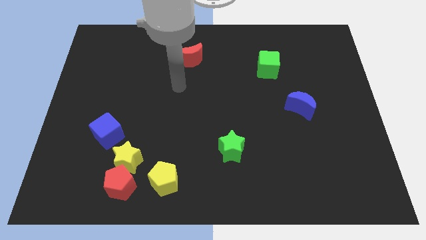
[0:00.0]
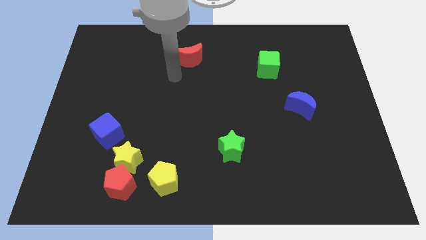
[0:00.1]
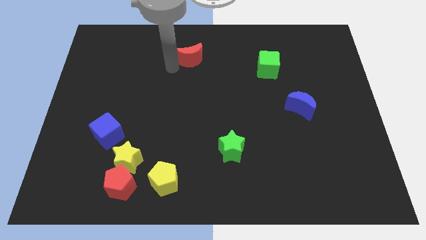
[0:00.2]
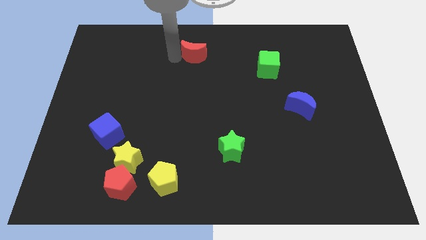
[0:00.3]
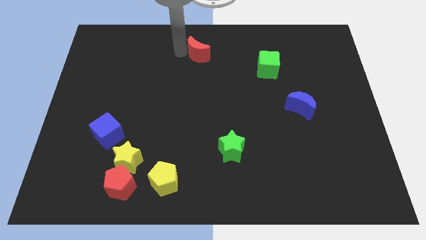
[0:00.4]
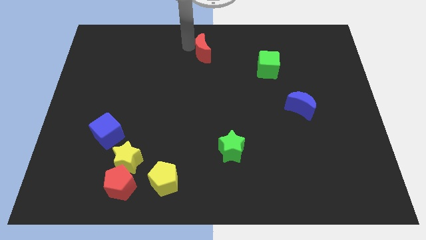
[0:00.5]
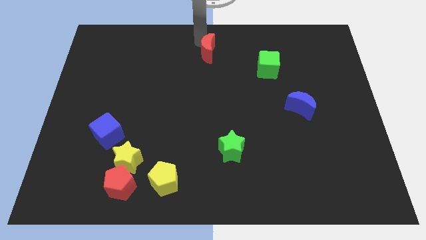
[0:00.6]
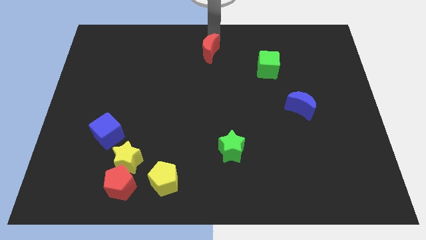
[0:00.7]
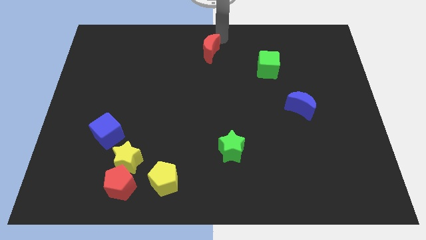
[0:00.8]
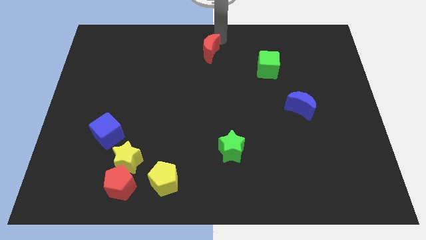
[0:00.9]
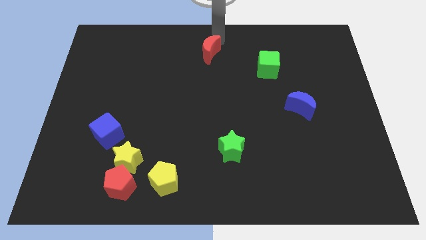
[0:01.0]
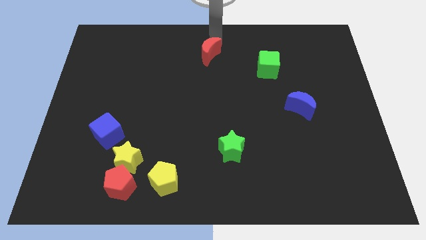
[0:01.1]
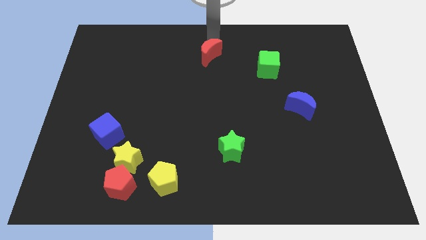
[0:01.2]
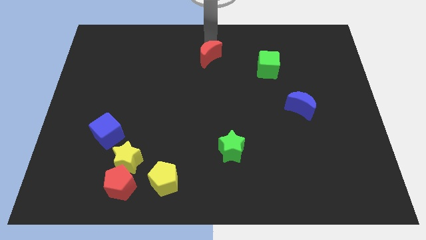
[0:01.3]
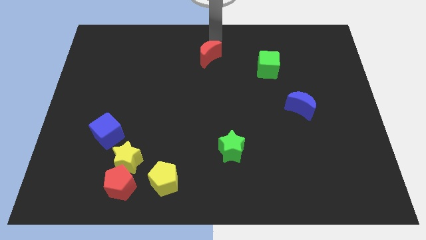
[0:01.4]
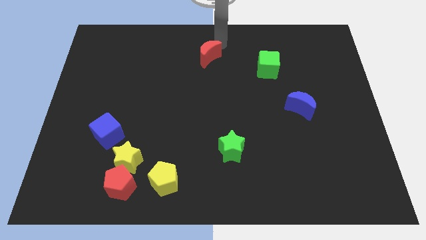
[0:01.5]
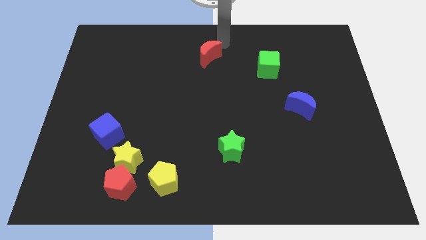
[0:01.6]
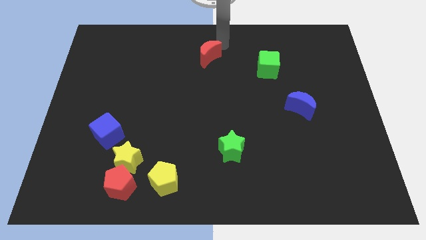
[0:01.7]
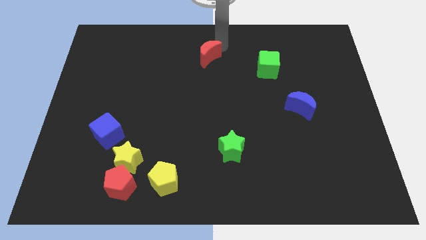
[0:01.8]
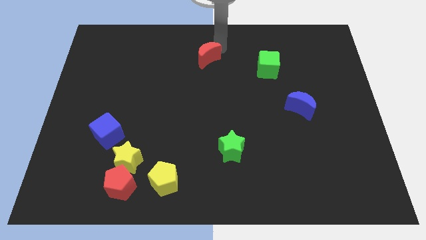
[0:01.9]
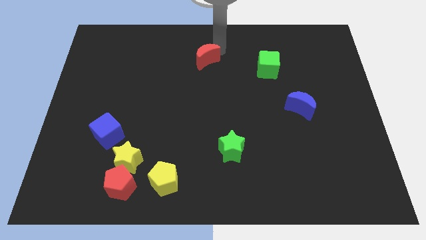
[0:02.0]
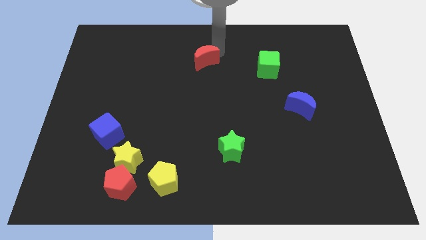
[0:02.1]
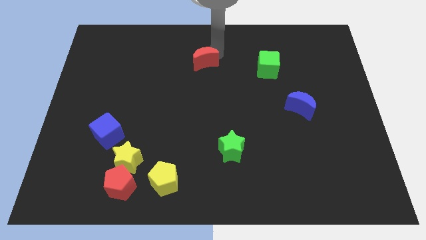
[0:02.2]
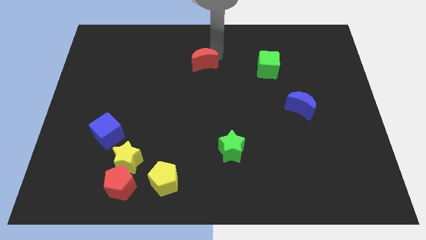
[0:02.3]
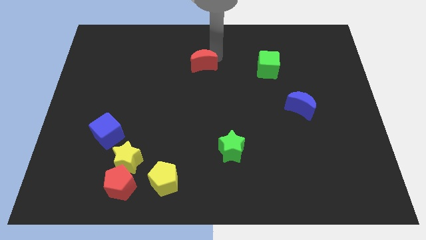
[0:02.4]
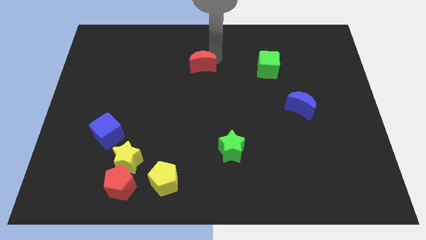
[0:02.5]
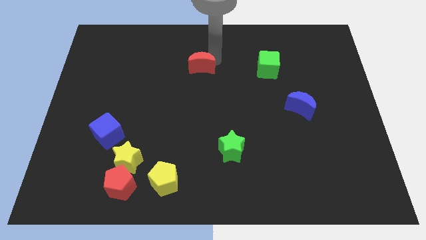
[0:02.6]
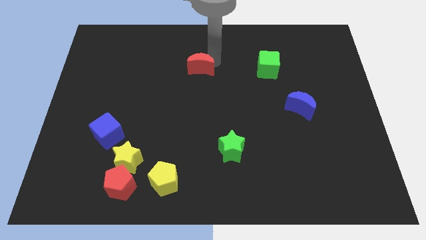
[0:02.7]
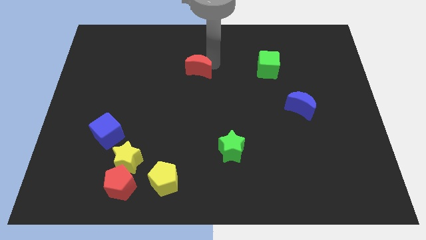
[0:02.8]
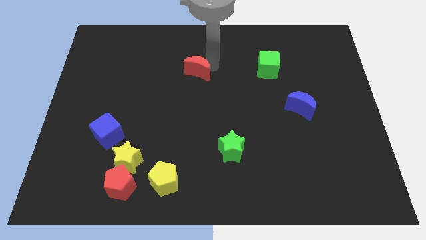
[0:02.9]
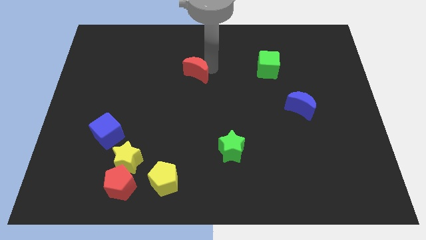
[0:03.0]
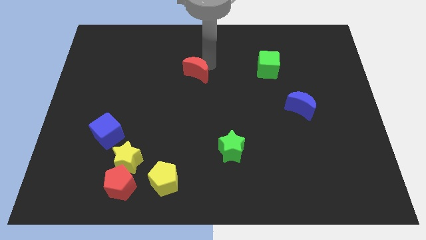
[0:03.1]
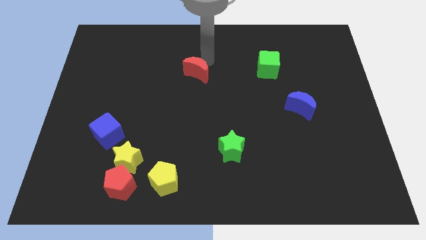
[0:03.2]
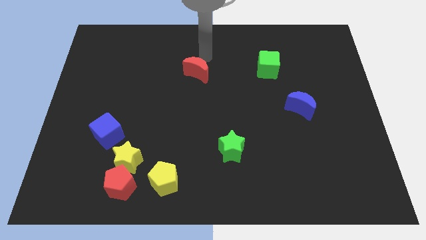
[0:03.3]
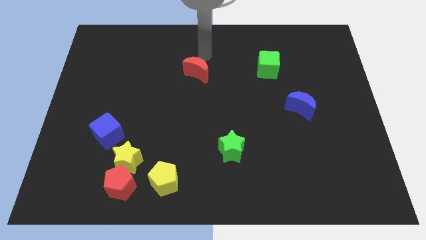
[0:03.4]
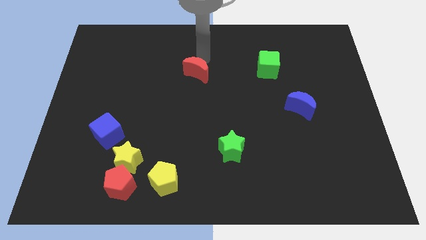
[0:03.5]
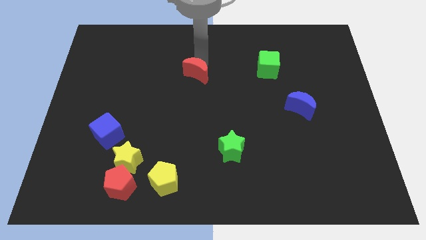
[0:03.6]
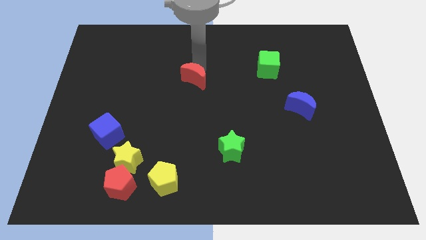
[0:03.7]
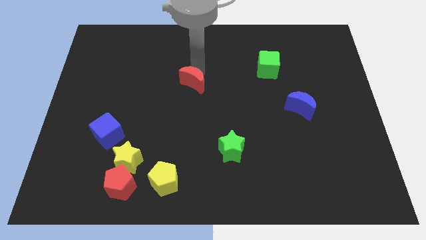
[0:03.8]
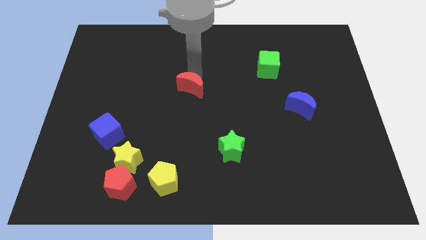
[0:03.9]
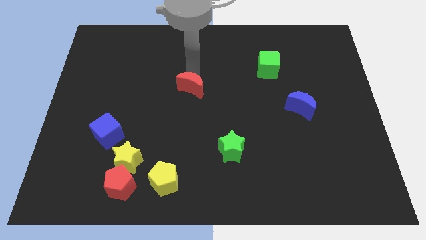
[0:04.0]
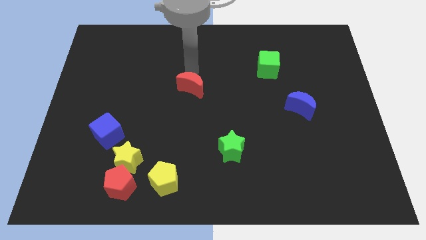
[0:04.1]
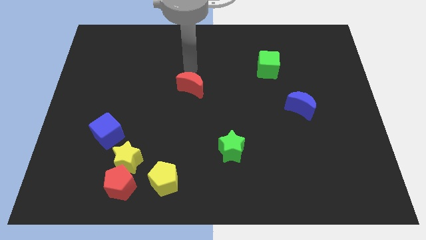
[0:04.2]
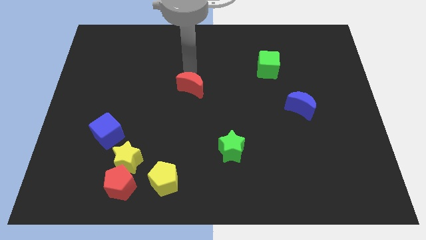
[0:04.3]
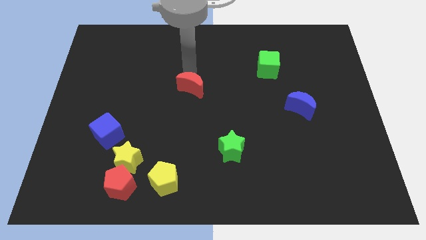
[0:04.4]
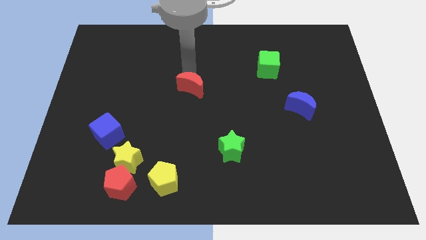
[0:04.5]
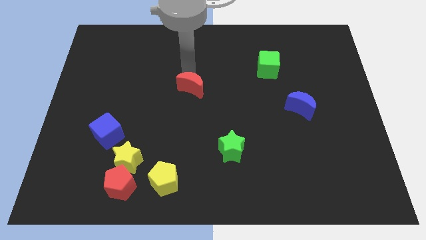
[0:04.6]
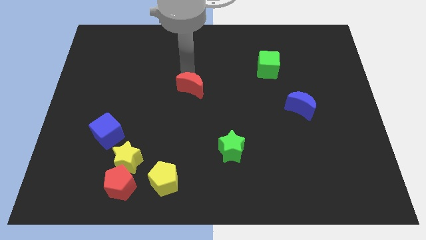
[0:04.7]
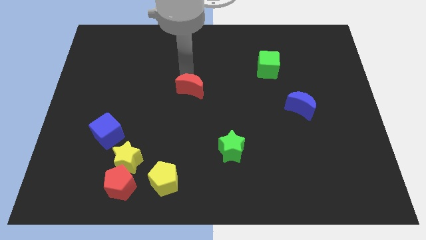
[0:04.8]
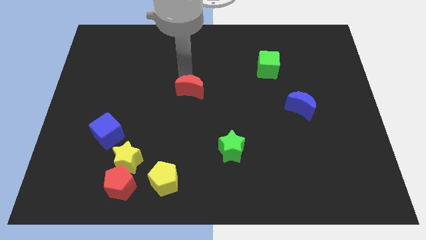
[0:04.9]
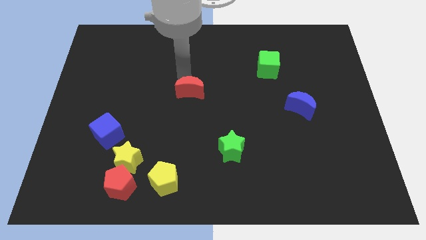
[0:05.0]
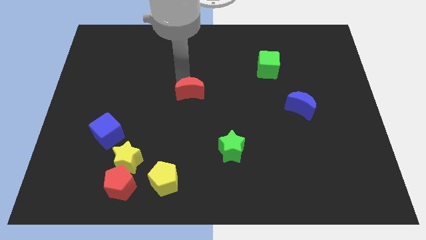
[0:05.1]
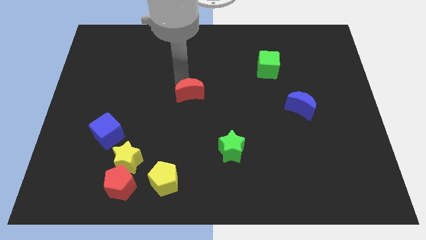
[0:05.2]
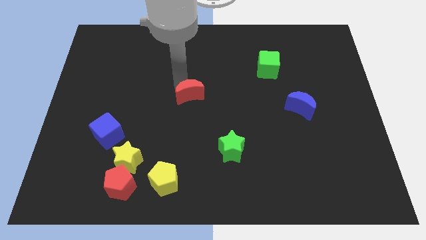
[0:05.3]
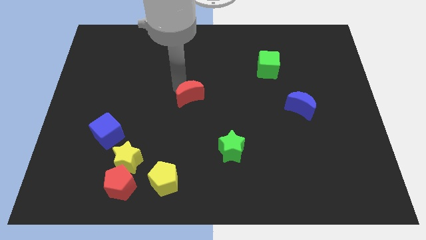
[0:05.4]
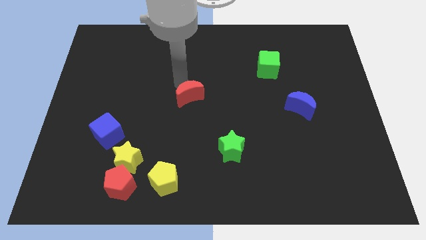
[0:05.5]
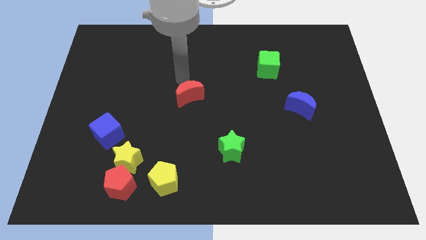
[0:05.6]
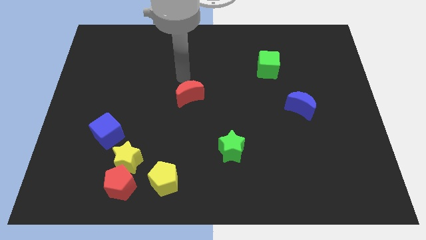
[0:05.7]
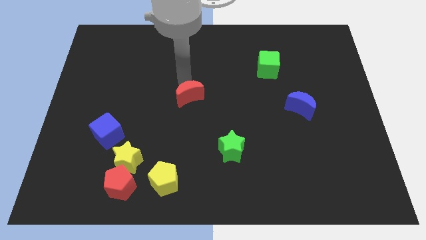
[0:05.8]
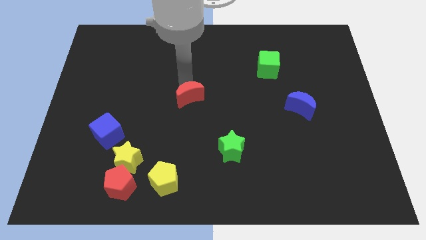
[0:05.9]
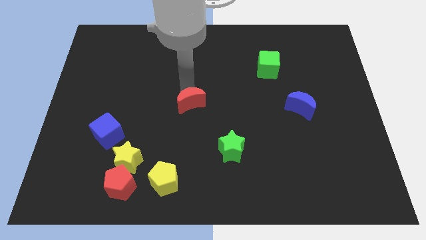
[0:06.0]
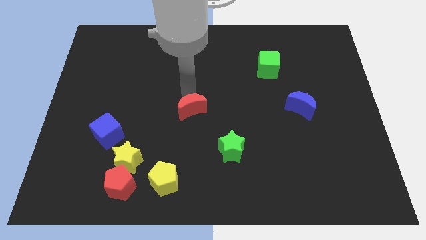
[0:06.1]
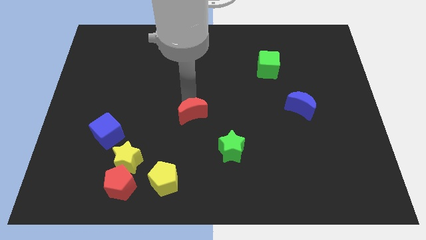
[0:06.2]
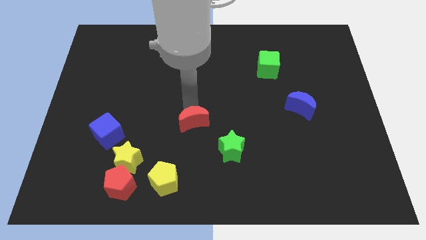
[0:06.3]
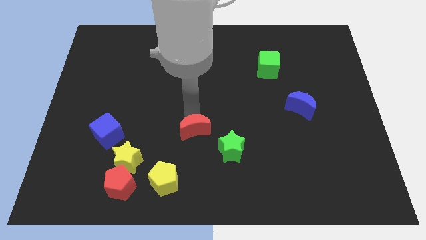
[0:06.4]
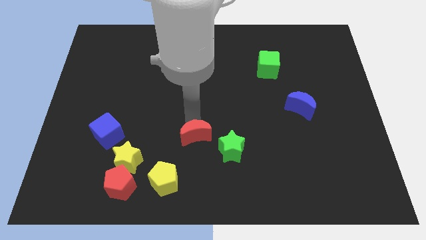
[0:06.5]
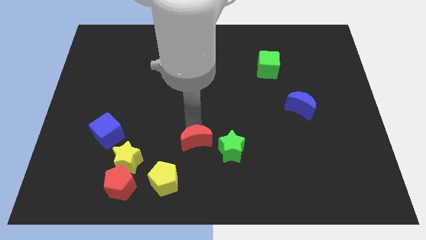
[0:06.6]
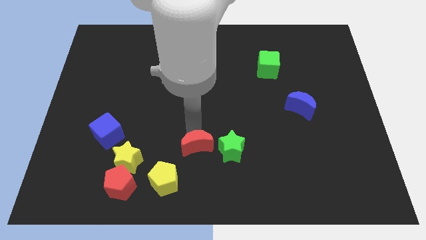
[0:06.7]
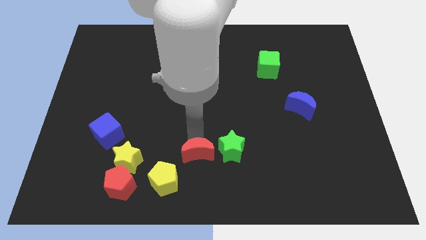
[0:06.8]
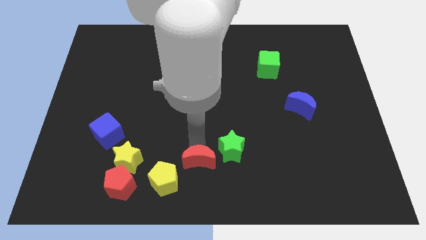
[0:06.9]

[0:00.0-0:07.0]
push the red moon to the bottom side
